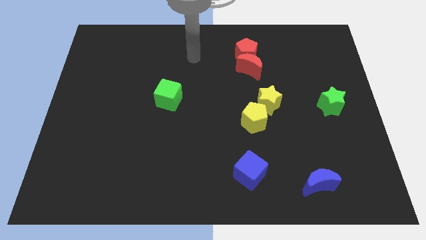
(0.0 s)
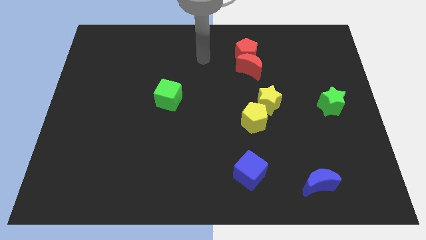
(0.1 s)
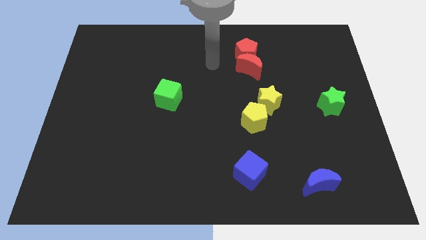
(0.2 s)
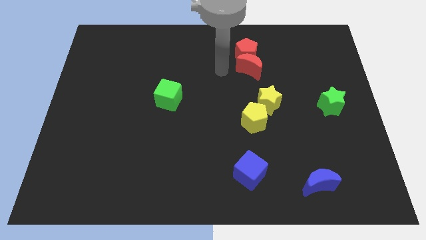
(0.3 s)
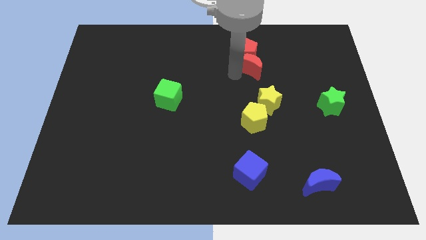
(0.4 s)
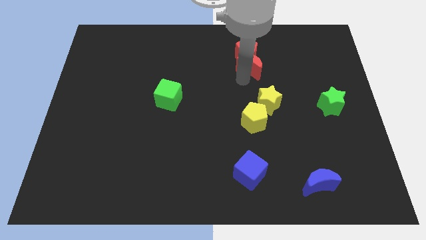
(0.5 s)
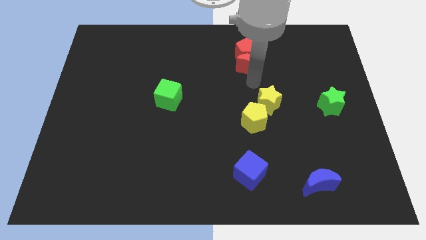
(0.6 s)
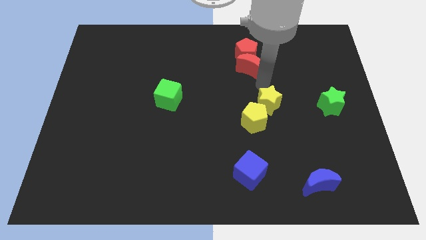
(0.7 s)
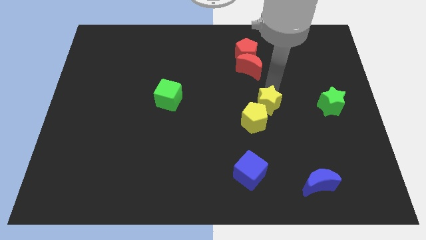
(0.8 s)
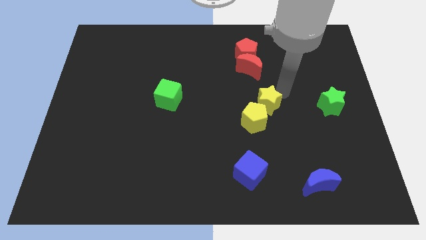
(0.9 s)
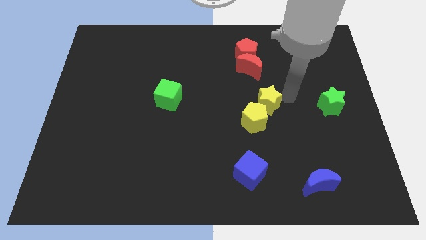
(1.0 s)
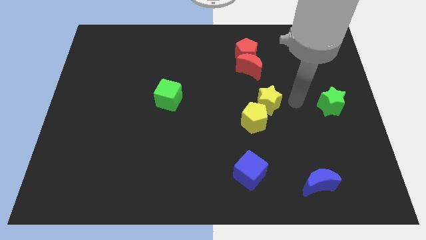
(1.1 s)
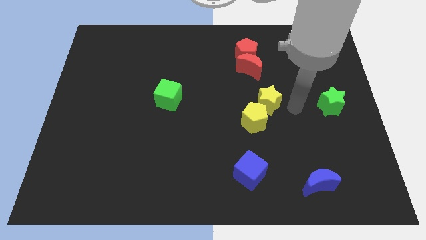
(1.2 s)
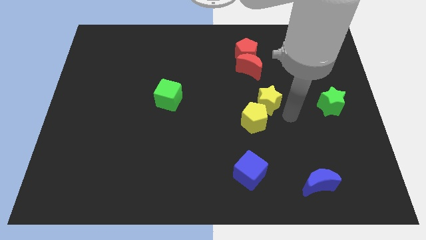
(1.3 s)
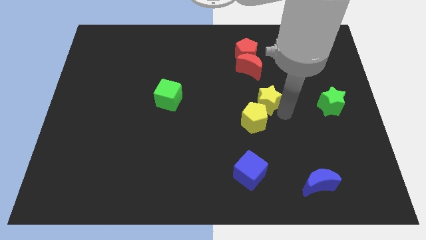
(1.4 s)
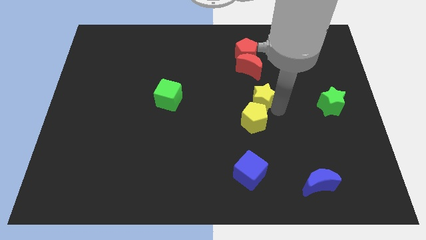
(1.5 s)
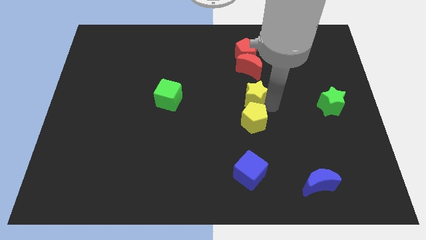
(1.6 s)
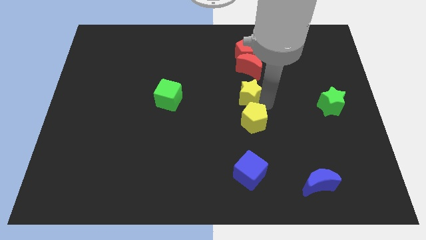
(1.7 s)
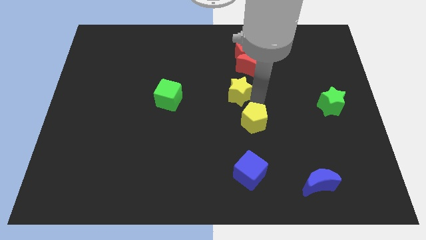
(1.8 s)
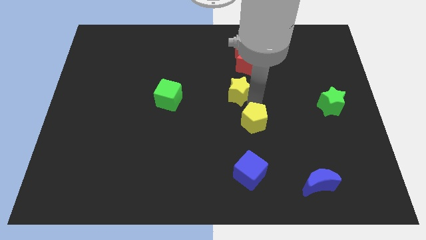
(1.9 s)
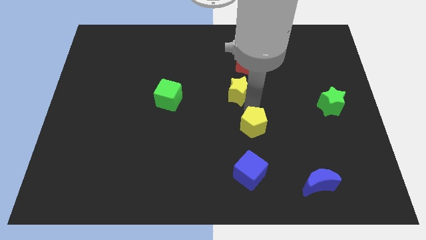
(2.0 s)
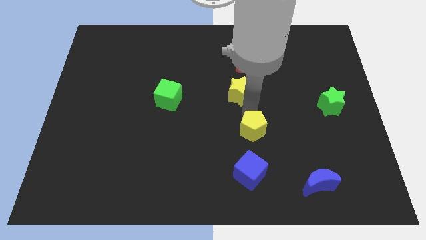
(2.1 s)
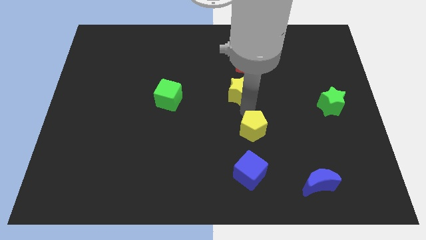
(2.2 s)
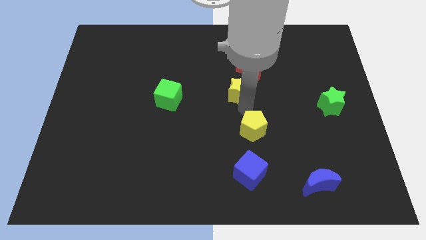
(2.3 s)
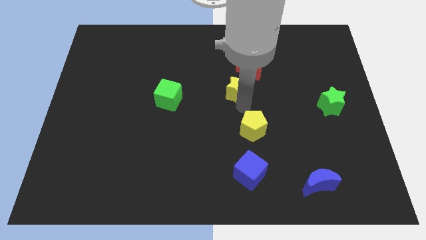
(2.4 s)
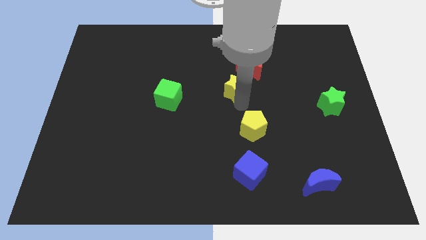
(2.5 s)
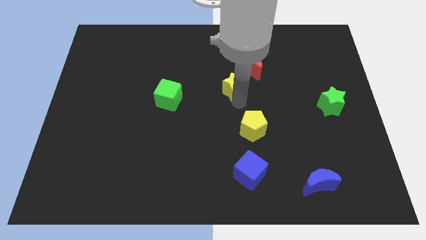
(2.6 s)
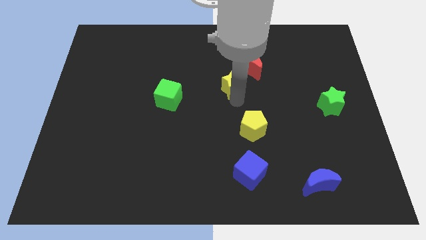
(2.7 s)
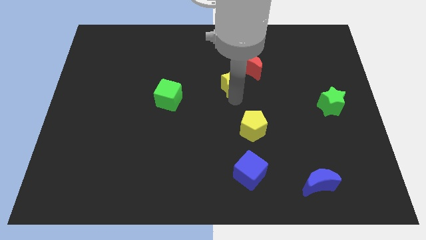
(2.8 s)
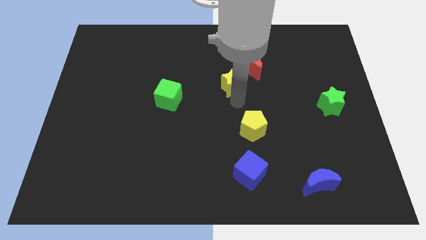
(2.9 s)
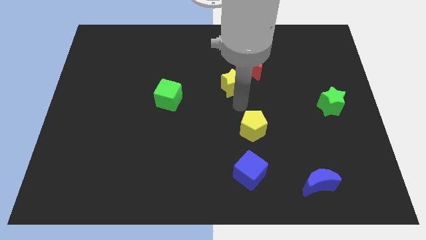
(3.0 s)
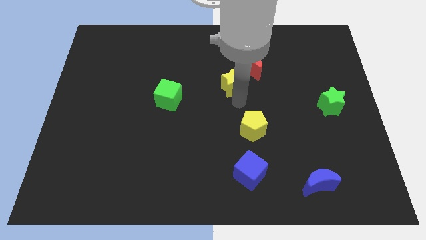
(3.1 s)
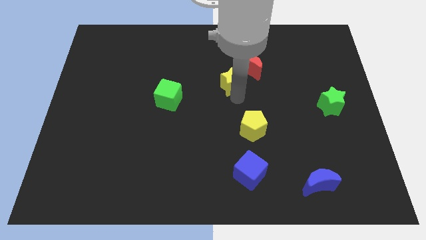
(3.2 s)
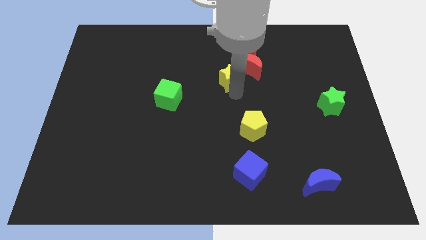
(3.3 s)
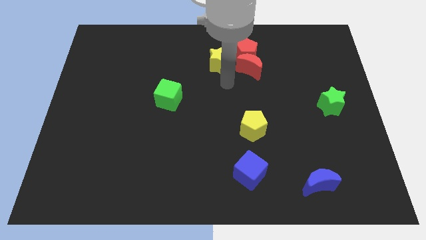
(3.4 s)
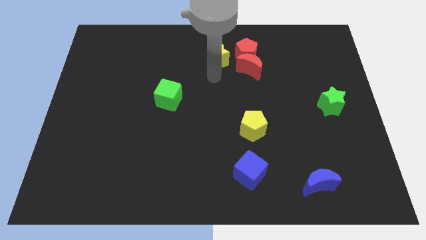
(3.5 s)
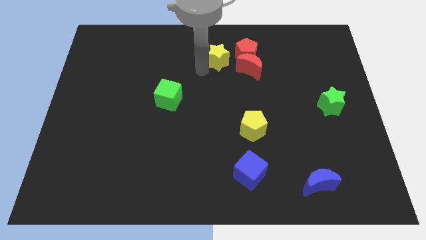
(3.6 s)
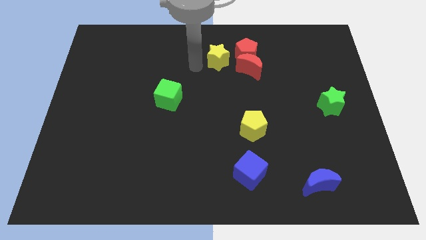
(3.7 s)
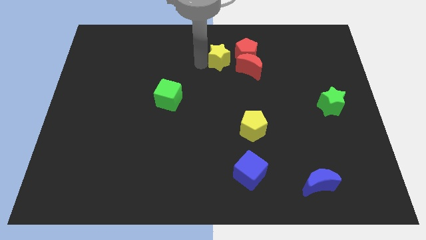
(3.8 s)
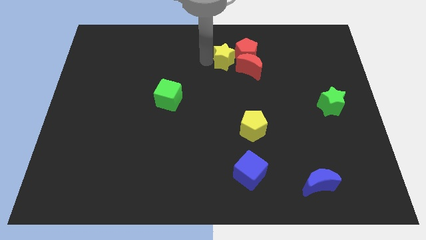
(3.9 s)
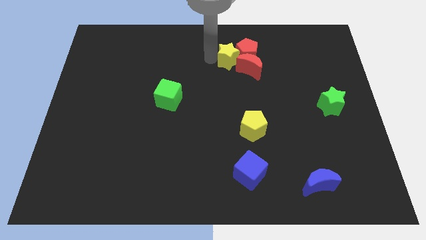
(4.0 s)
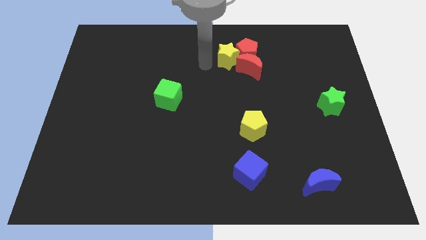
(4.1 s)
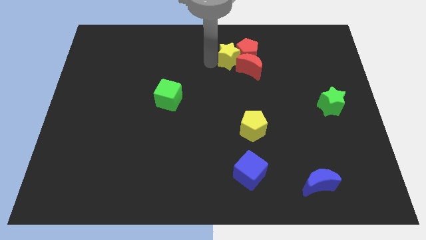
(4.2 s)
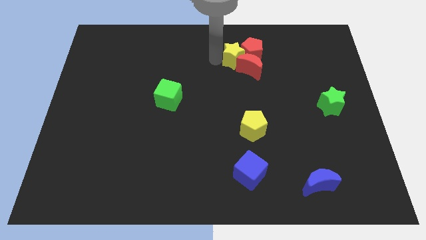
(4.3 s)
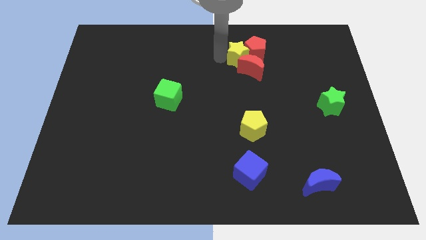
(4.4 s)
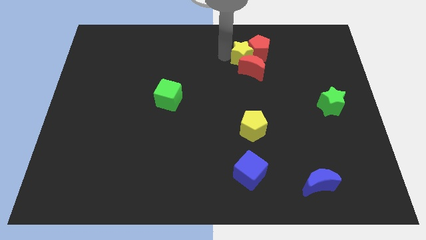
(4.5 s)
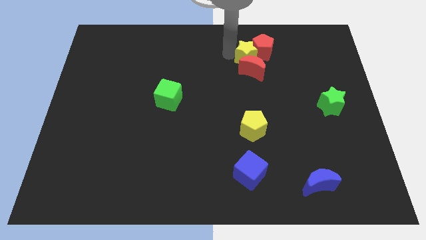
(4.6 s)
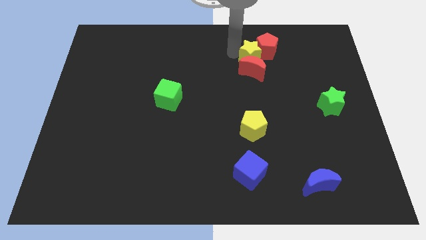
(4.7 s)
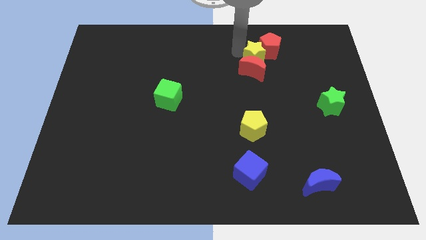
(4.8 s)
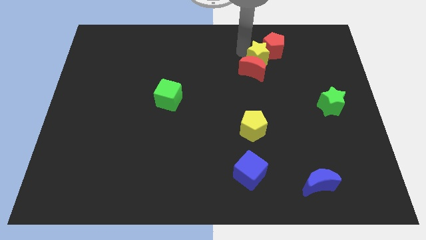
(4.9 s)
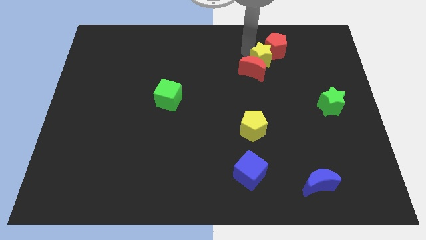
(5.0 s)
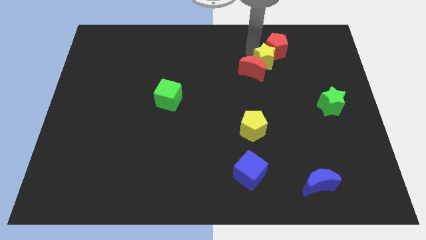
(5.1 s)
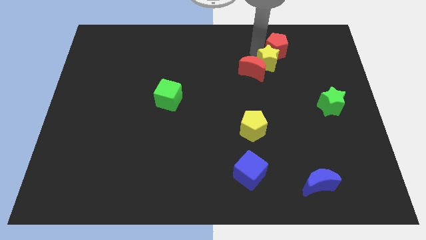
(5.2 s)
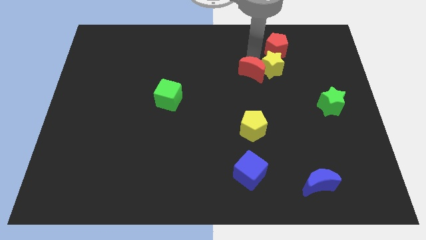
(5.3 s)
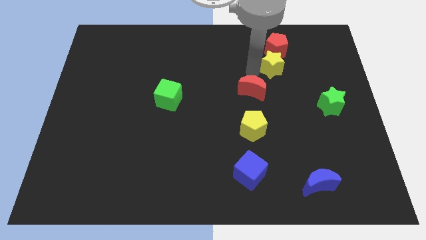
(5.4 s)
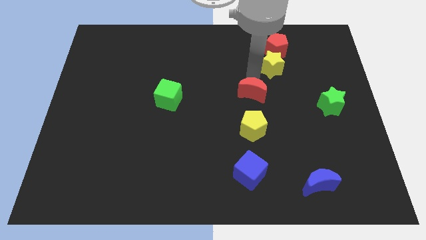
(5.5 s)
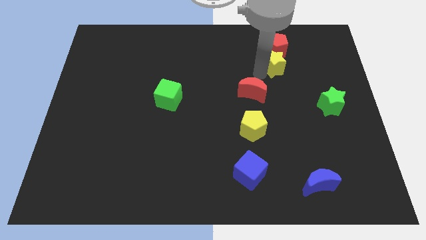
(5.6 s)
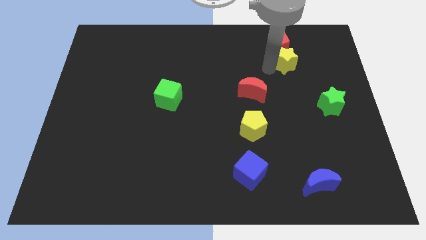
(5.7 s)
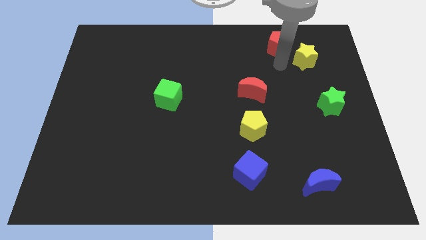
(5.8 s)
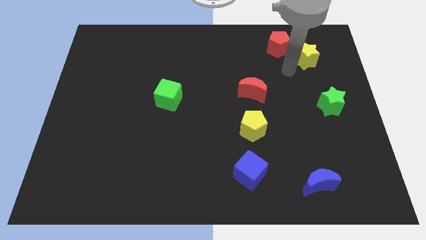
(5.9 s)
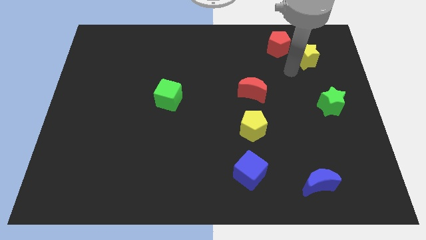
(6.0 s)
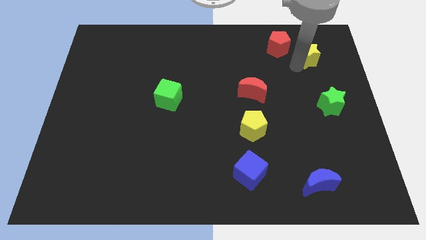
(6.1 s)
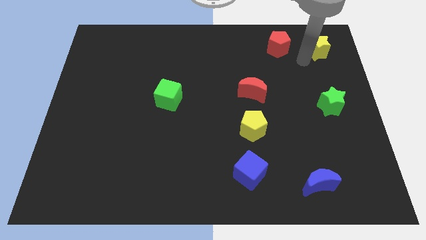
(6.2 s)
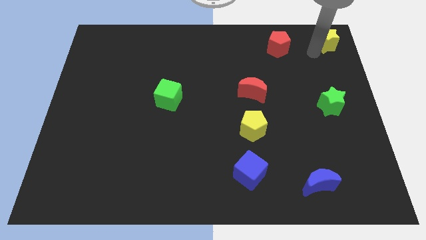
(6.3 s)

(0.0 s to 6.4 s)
slide the yellow star to the upper right corner

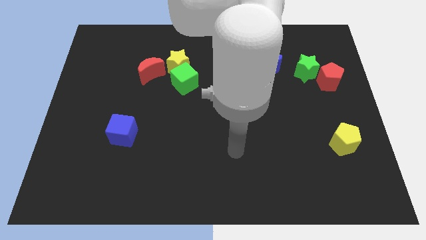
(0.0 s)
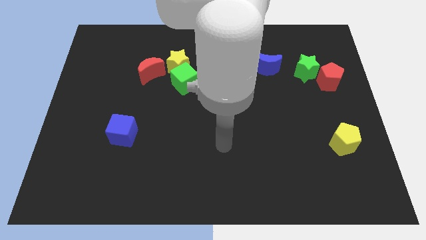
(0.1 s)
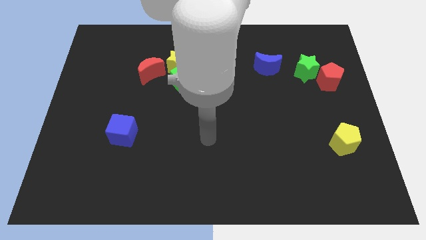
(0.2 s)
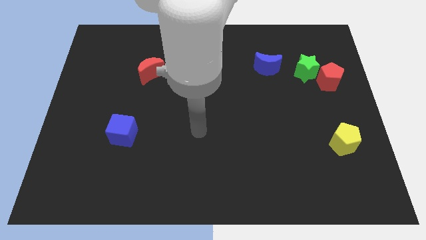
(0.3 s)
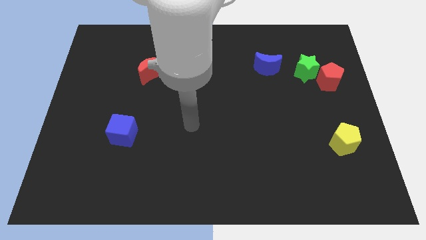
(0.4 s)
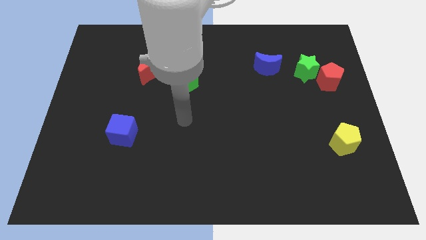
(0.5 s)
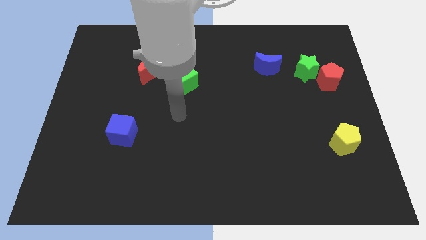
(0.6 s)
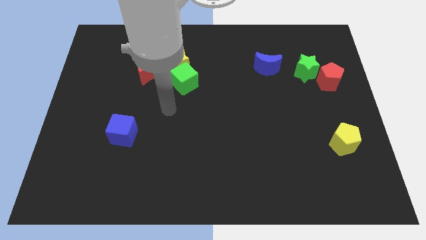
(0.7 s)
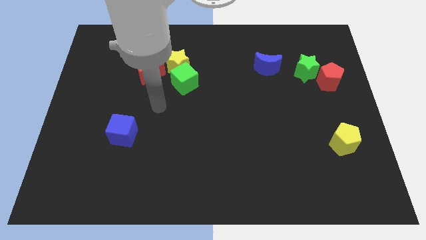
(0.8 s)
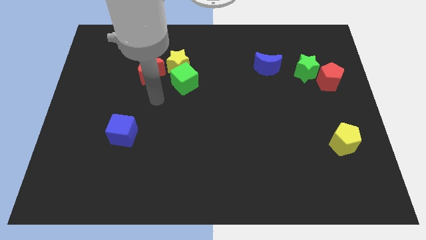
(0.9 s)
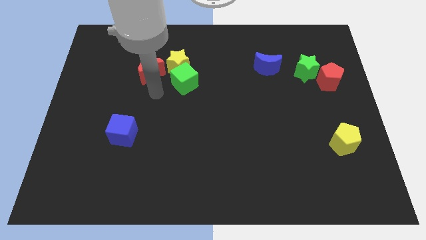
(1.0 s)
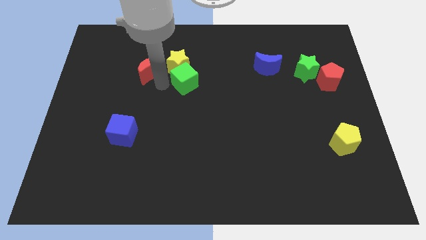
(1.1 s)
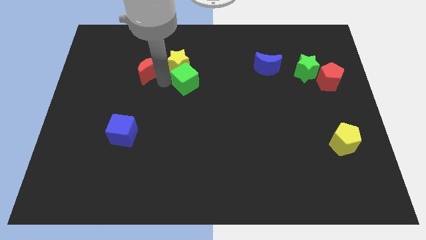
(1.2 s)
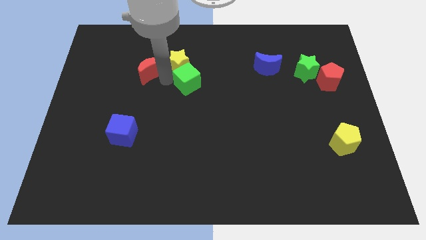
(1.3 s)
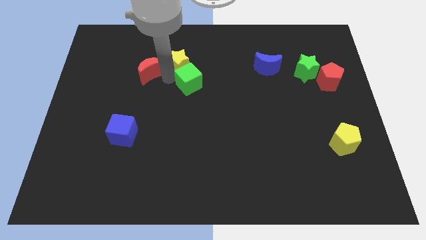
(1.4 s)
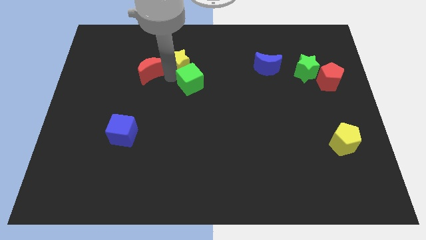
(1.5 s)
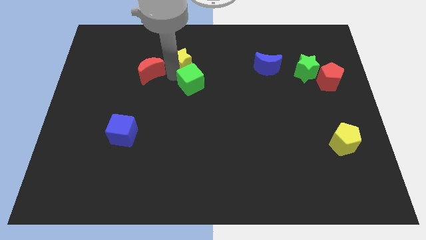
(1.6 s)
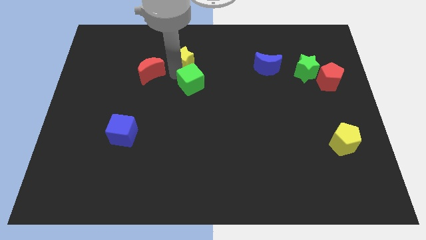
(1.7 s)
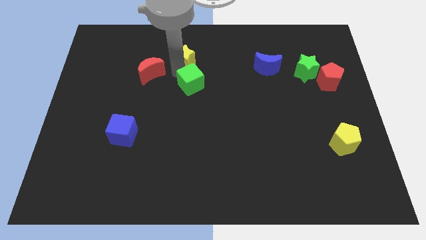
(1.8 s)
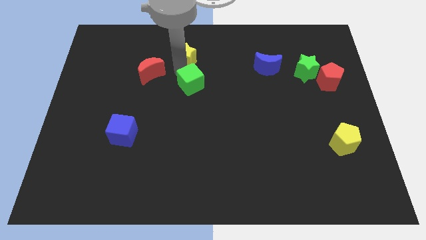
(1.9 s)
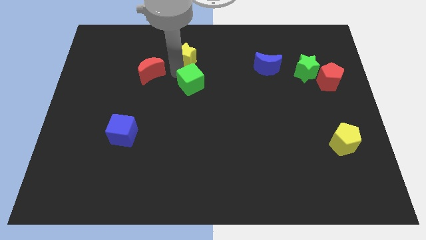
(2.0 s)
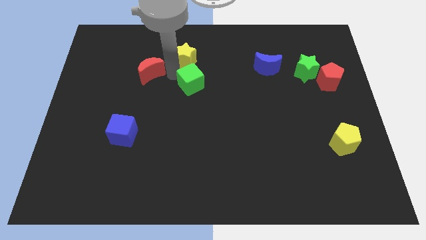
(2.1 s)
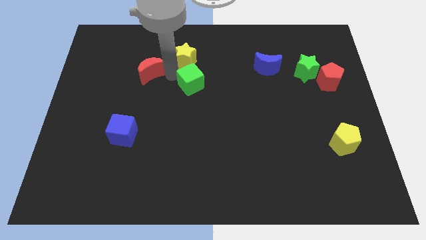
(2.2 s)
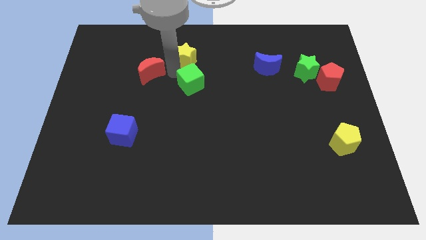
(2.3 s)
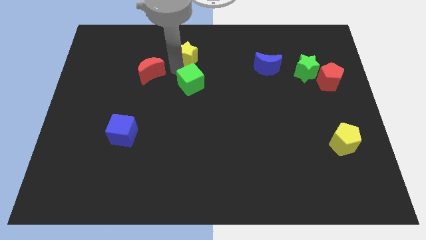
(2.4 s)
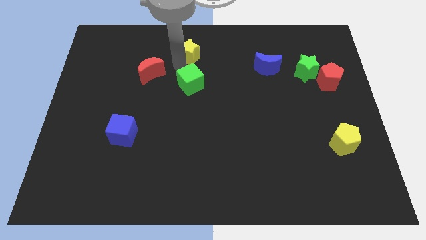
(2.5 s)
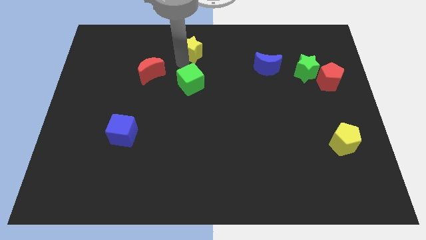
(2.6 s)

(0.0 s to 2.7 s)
put the yellow star to the top
